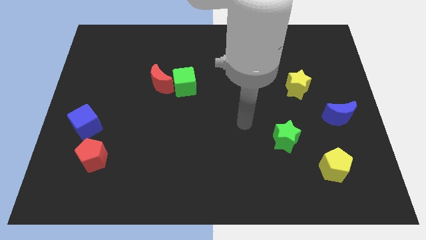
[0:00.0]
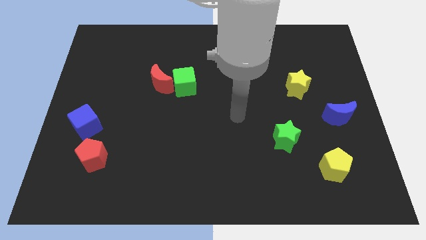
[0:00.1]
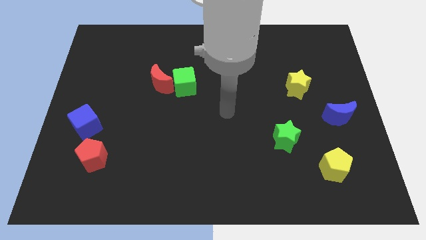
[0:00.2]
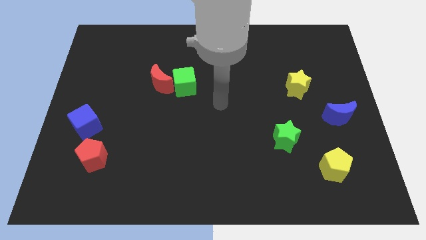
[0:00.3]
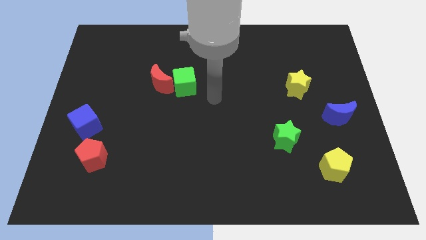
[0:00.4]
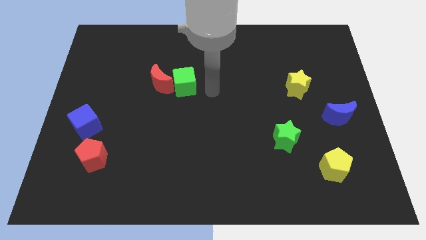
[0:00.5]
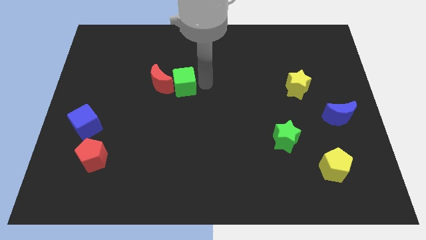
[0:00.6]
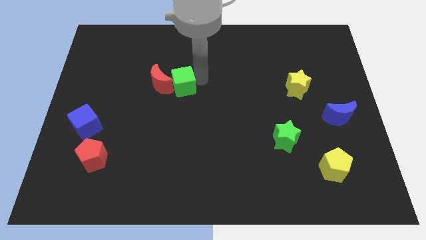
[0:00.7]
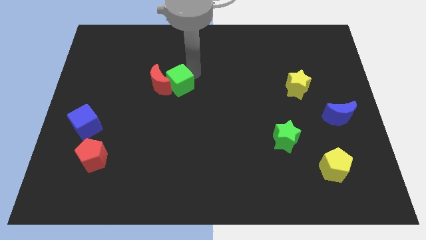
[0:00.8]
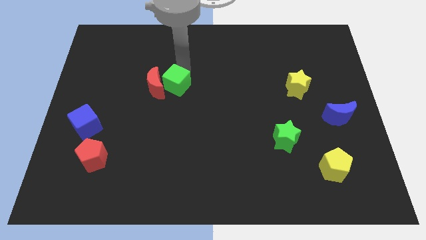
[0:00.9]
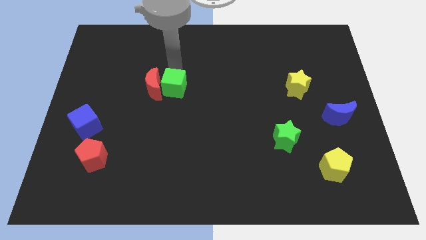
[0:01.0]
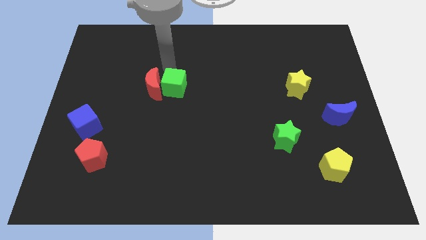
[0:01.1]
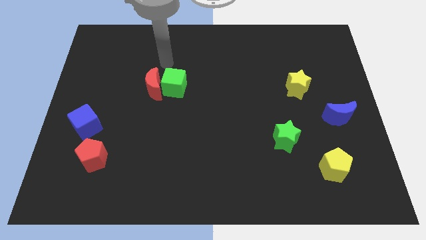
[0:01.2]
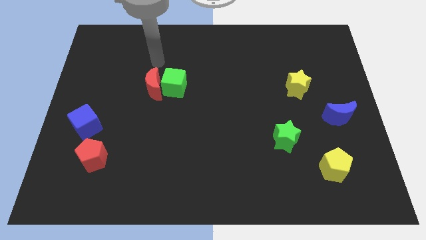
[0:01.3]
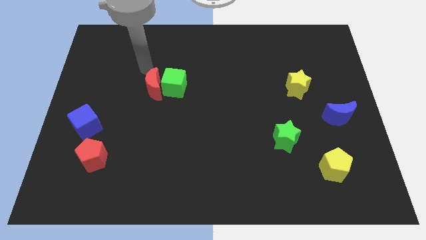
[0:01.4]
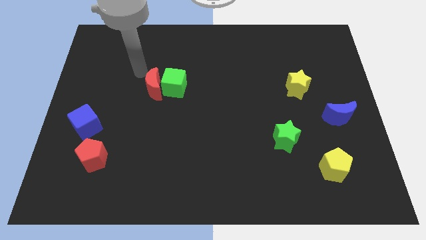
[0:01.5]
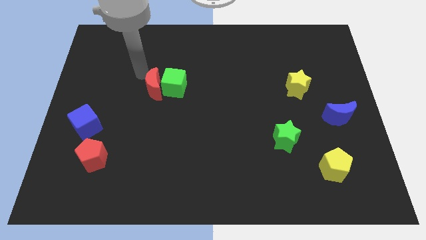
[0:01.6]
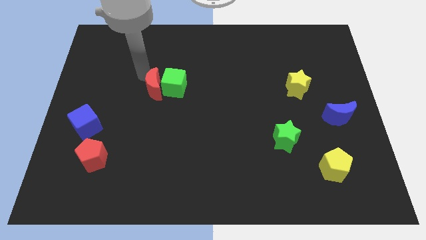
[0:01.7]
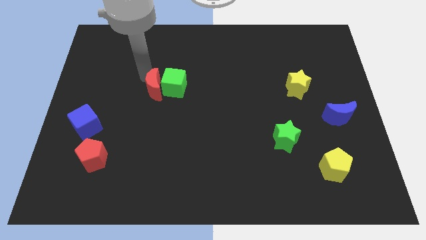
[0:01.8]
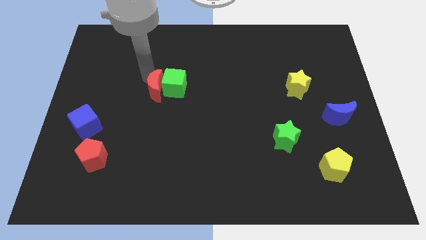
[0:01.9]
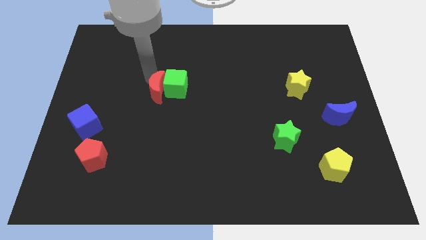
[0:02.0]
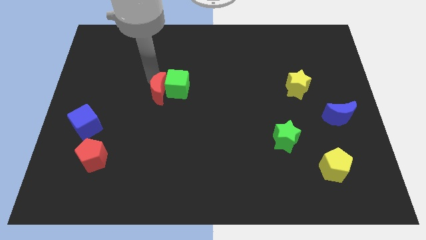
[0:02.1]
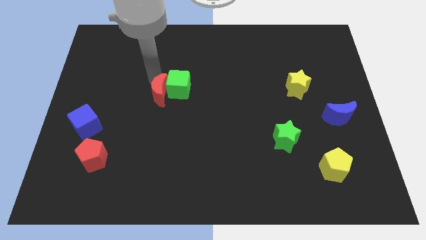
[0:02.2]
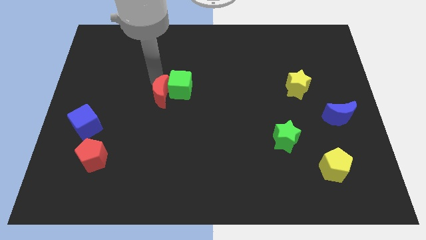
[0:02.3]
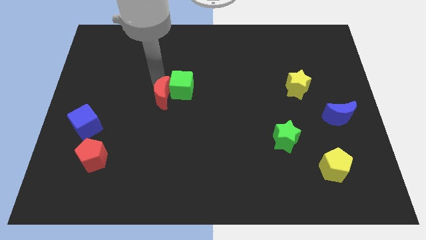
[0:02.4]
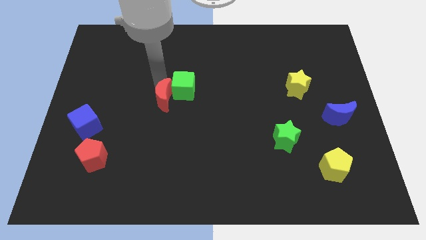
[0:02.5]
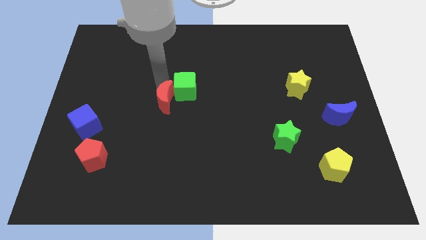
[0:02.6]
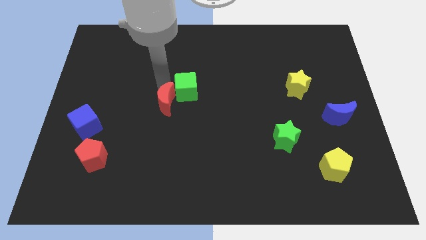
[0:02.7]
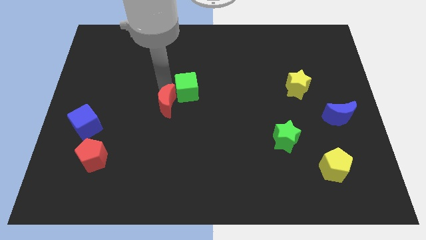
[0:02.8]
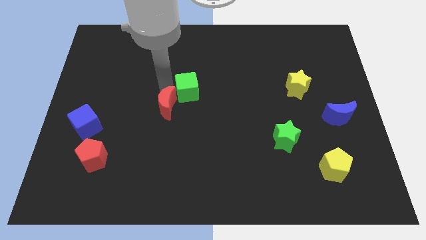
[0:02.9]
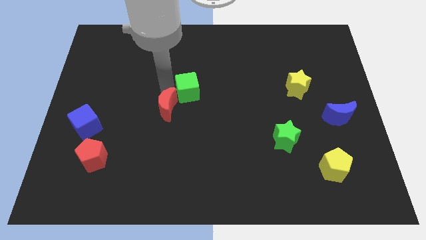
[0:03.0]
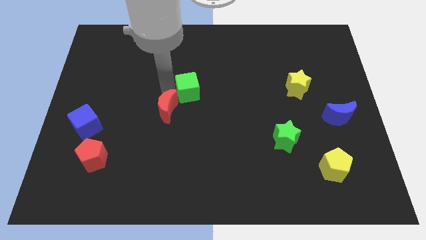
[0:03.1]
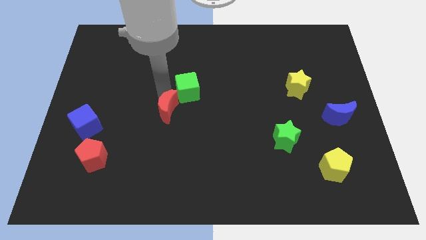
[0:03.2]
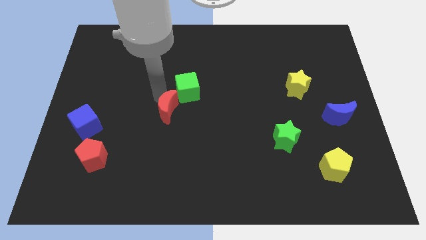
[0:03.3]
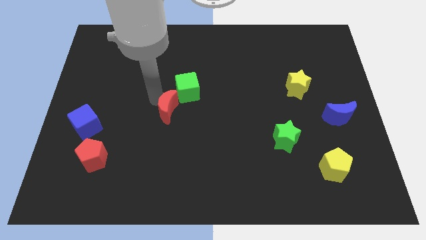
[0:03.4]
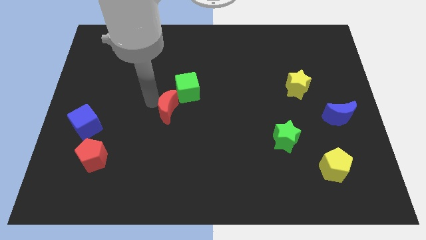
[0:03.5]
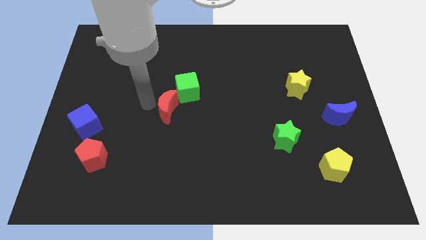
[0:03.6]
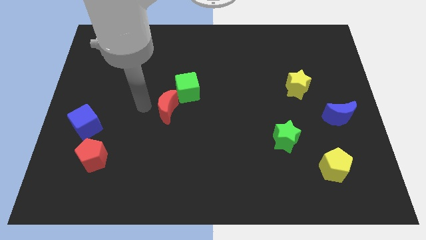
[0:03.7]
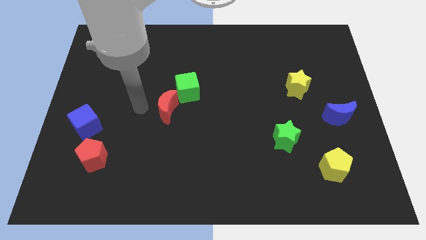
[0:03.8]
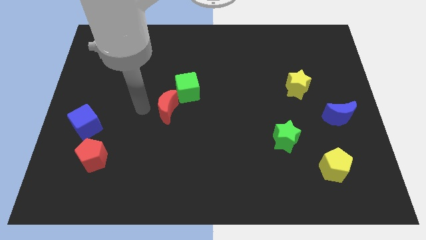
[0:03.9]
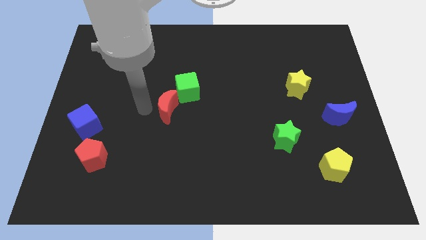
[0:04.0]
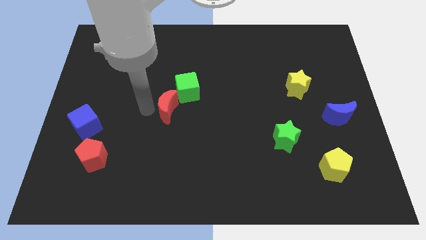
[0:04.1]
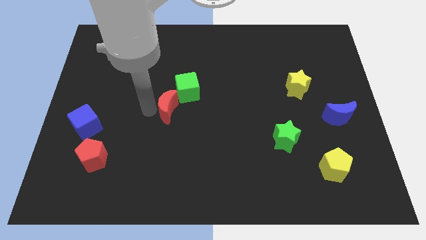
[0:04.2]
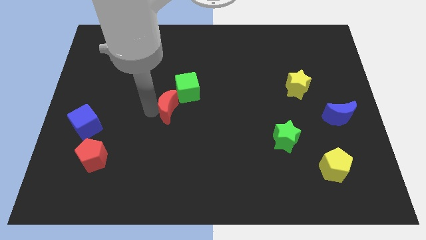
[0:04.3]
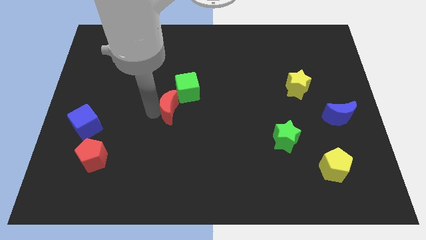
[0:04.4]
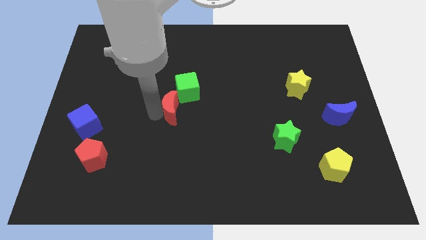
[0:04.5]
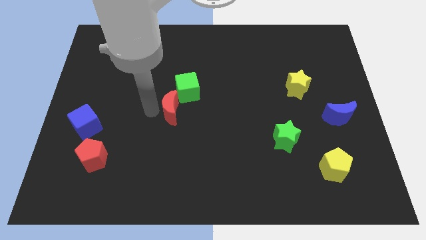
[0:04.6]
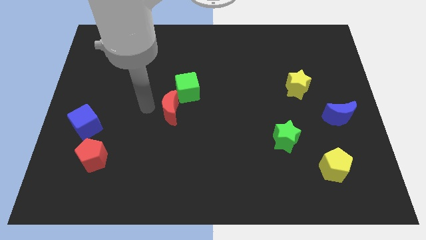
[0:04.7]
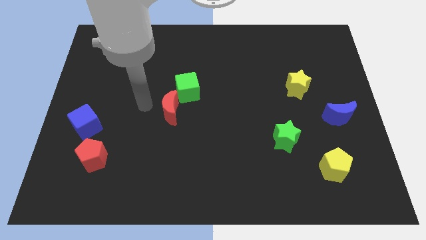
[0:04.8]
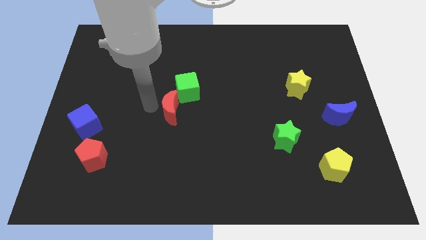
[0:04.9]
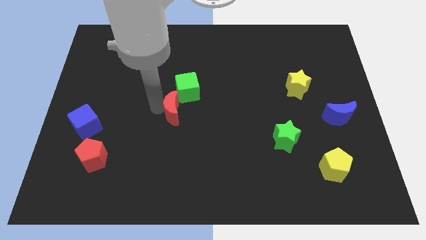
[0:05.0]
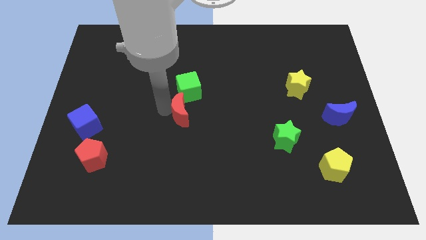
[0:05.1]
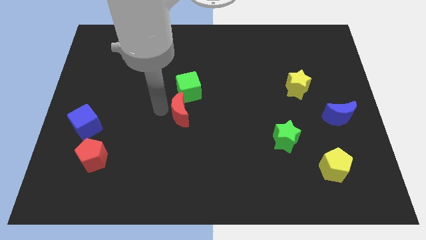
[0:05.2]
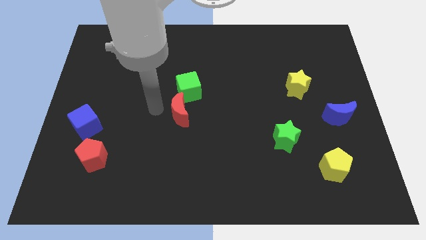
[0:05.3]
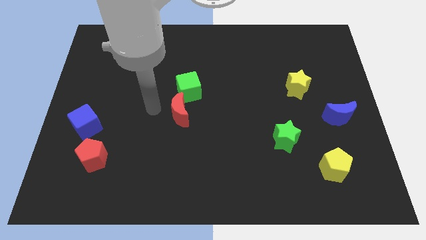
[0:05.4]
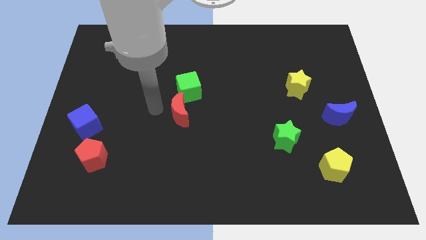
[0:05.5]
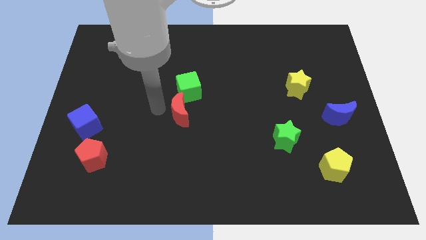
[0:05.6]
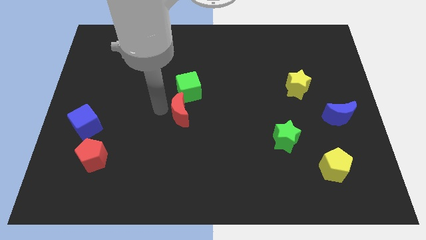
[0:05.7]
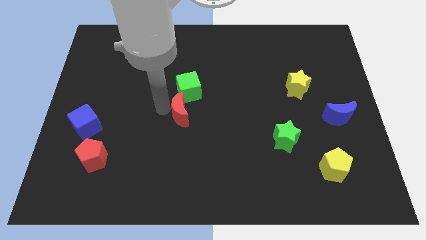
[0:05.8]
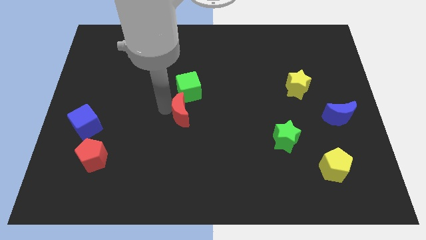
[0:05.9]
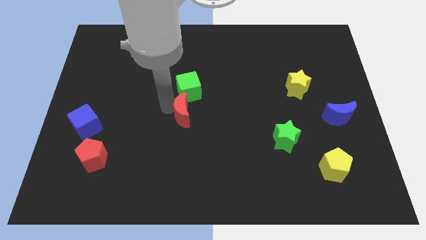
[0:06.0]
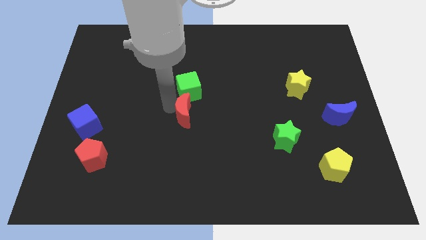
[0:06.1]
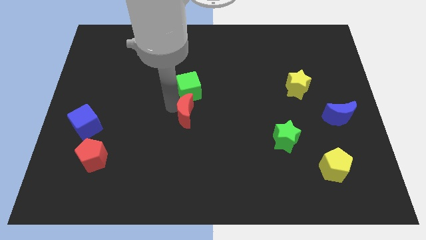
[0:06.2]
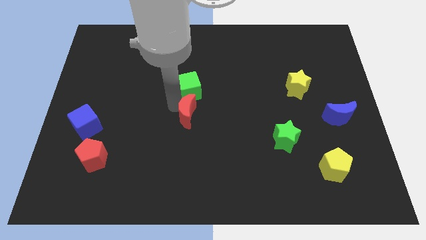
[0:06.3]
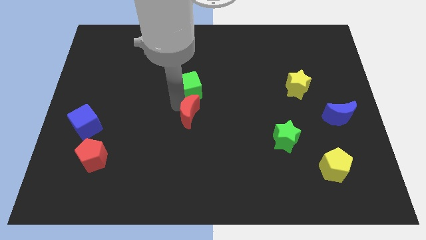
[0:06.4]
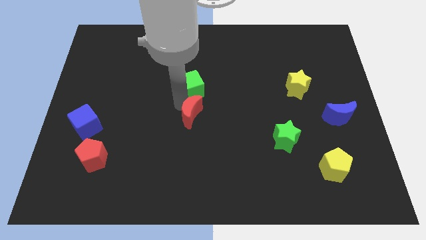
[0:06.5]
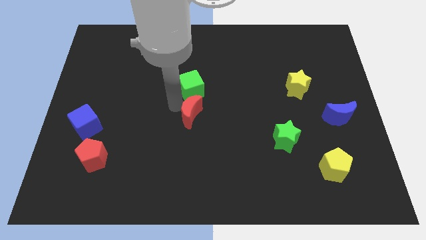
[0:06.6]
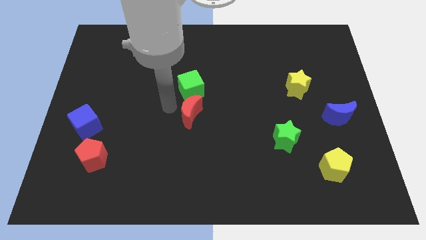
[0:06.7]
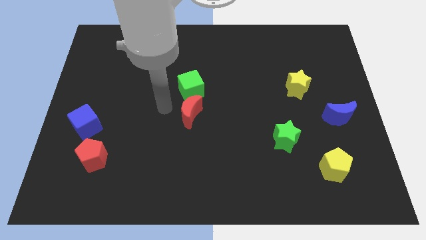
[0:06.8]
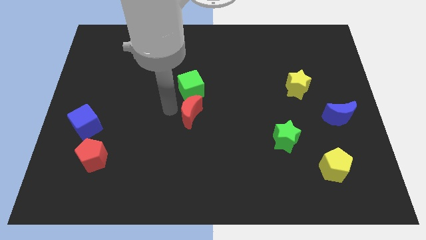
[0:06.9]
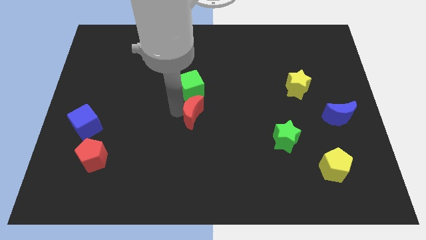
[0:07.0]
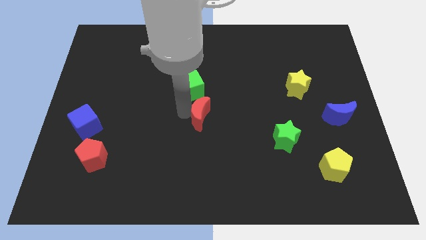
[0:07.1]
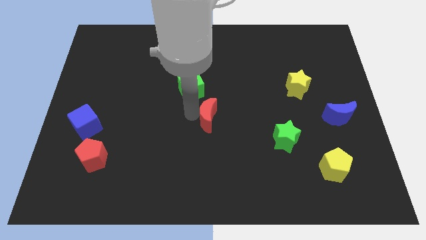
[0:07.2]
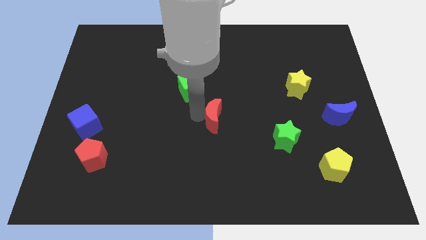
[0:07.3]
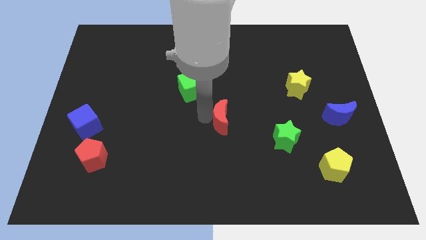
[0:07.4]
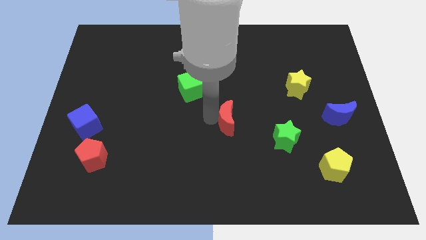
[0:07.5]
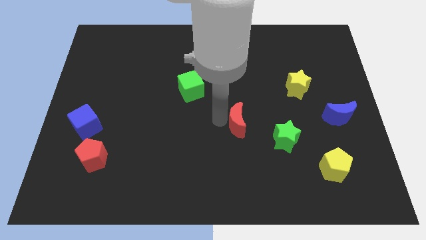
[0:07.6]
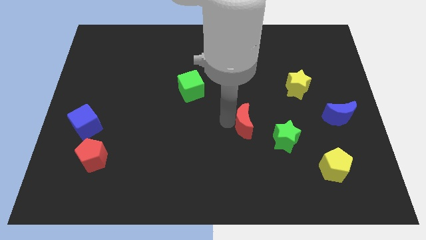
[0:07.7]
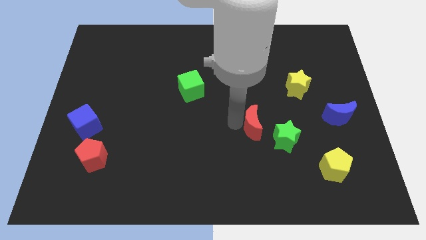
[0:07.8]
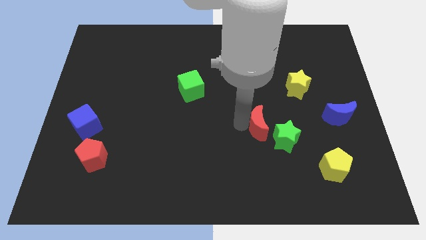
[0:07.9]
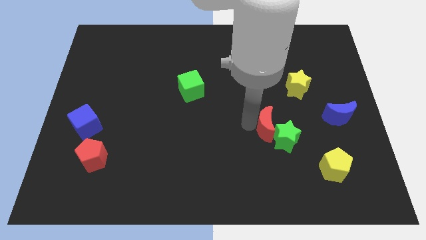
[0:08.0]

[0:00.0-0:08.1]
move the red moon to the green star
